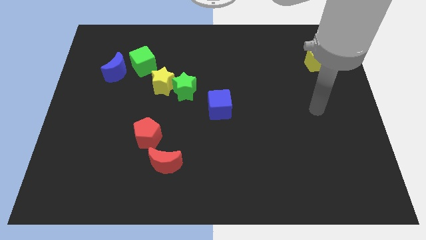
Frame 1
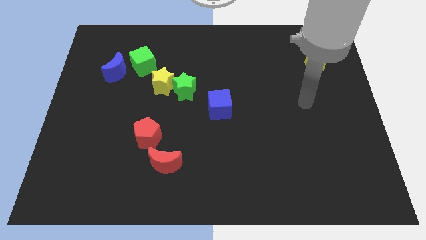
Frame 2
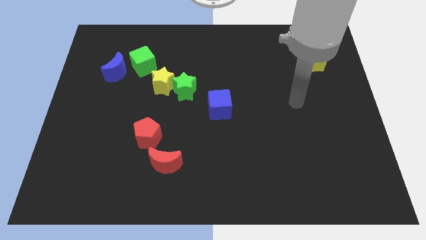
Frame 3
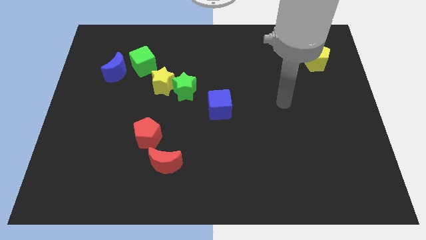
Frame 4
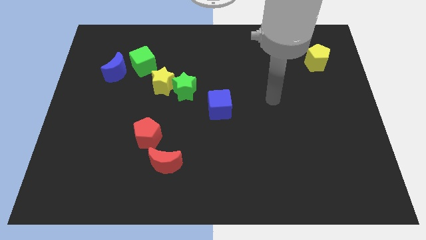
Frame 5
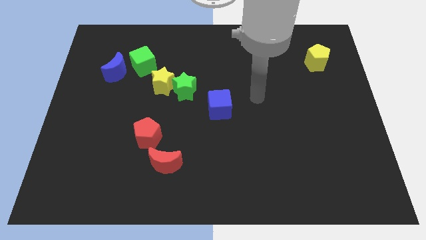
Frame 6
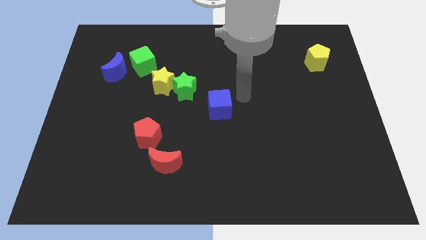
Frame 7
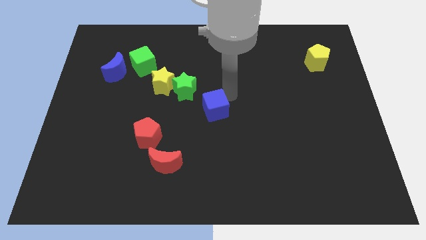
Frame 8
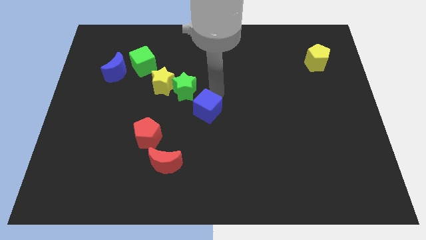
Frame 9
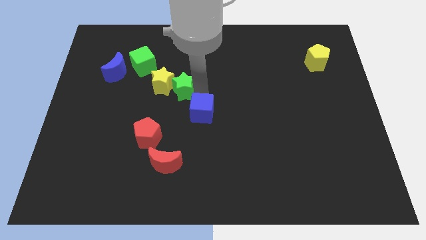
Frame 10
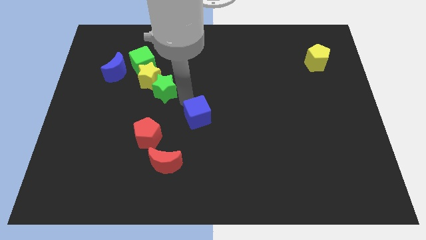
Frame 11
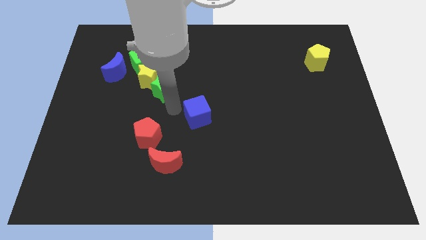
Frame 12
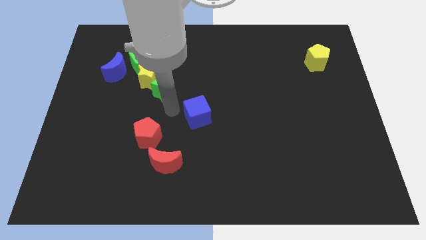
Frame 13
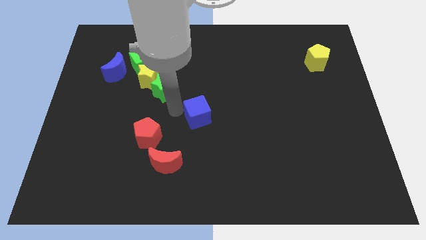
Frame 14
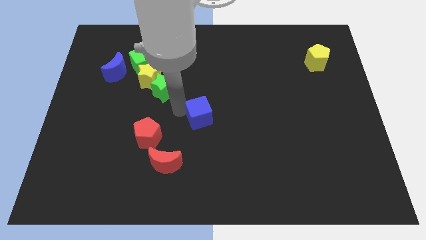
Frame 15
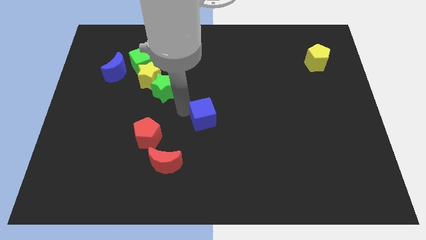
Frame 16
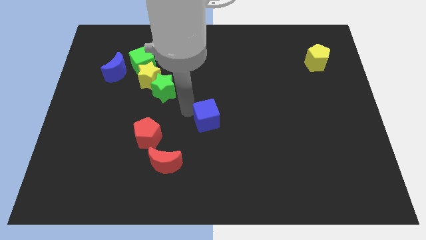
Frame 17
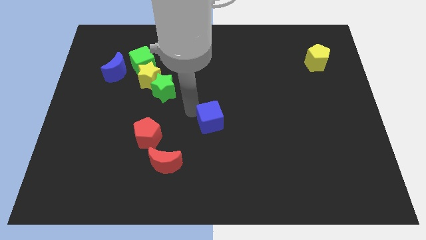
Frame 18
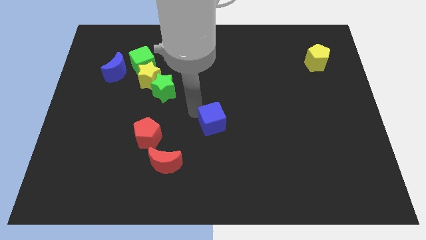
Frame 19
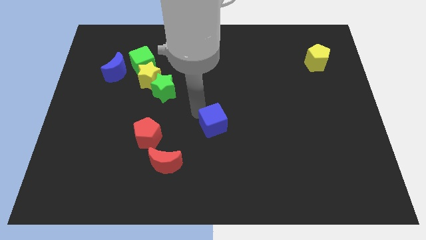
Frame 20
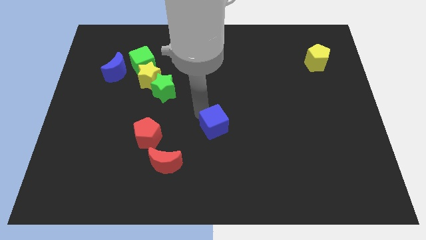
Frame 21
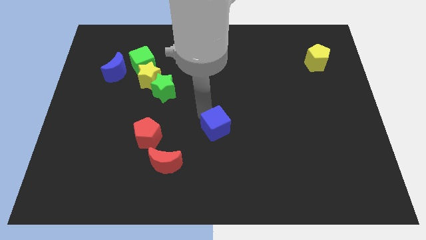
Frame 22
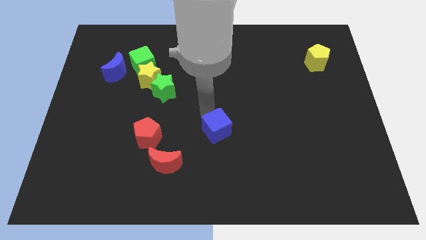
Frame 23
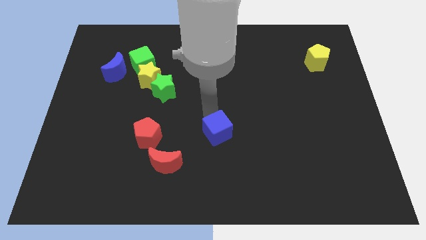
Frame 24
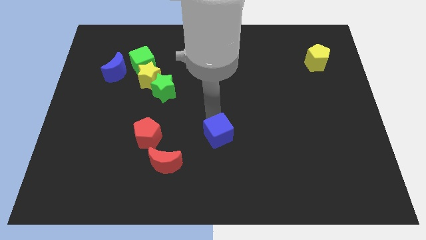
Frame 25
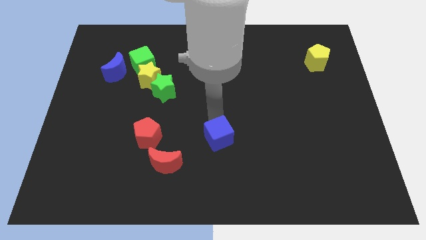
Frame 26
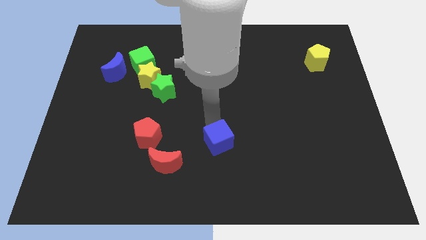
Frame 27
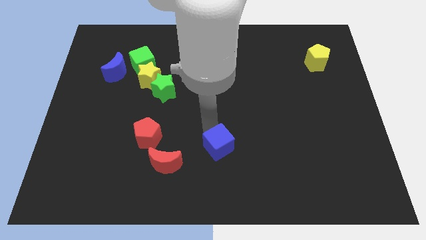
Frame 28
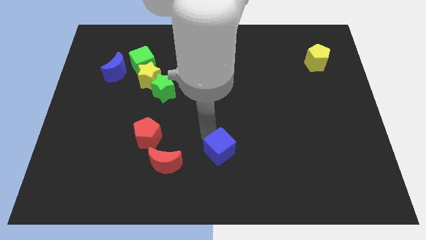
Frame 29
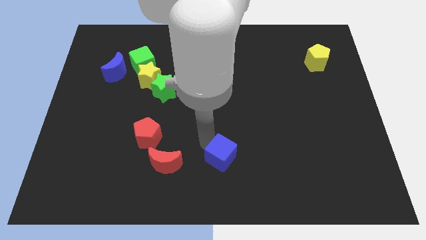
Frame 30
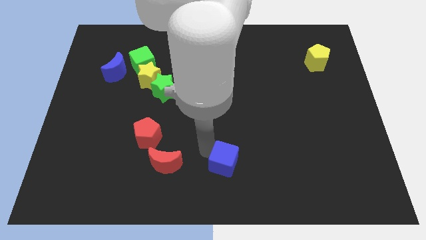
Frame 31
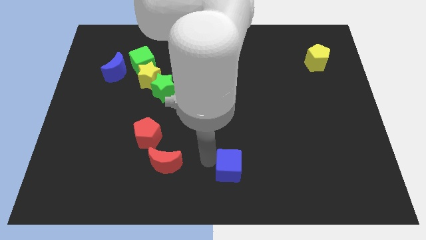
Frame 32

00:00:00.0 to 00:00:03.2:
slightly move the blue cube downwards and to the right

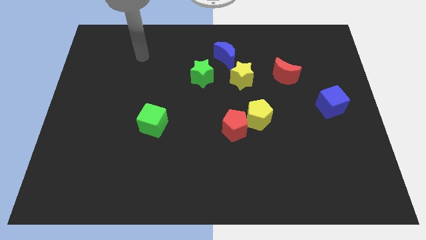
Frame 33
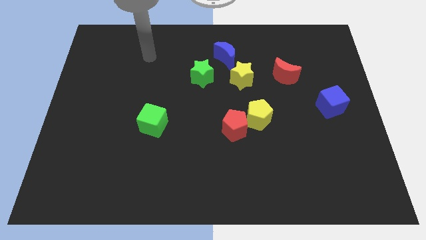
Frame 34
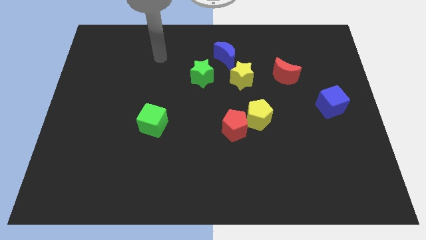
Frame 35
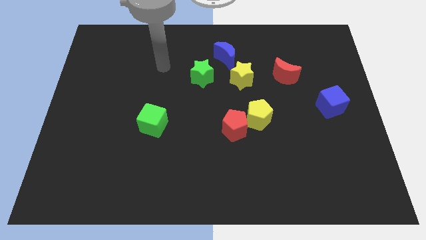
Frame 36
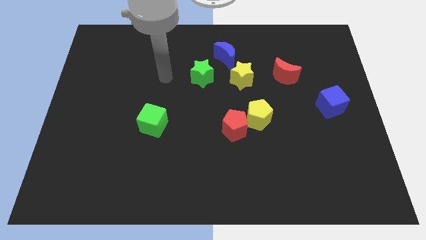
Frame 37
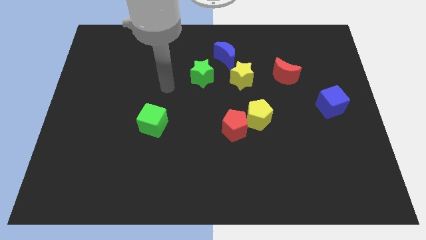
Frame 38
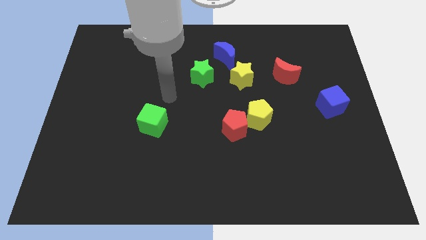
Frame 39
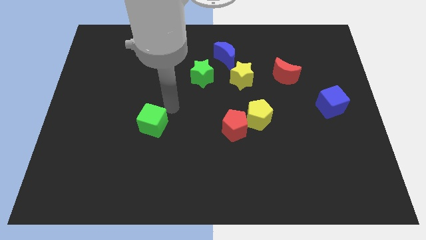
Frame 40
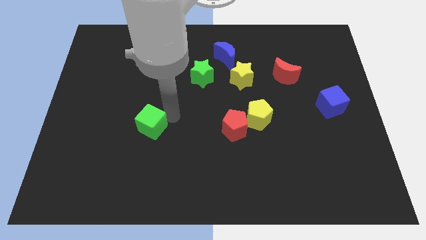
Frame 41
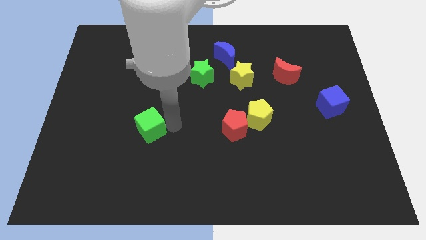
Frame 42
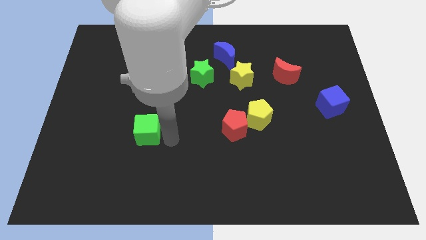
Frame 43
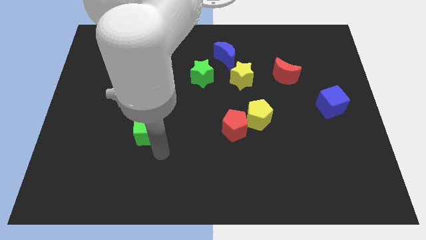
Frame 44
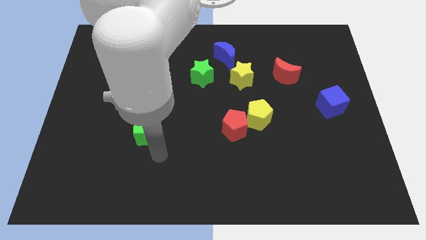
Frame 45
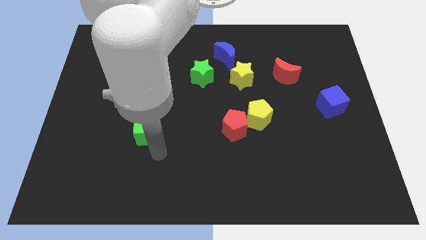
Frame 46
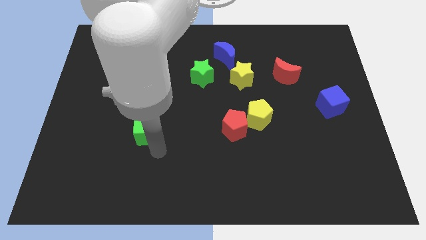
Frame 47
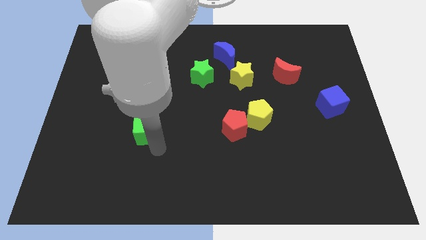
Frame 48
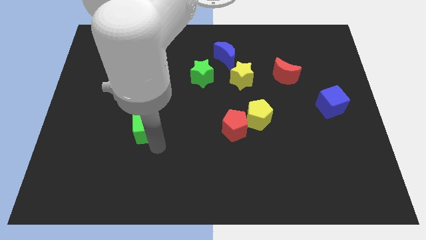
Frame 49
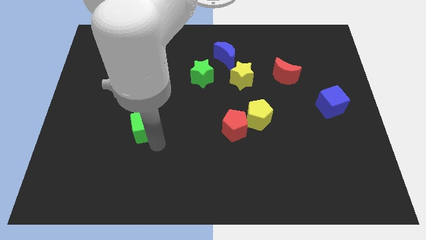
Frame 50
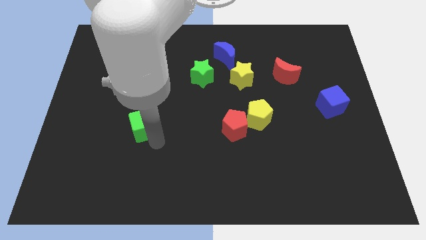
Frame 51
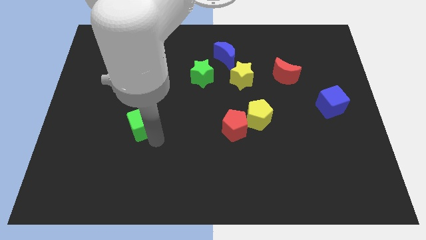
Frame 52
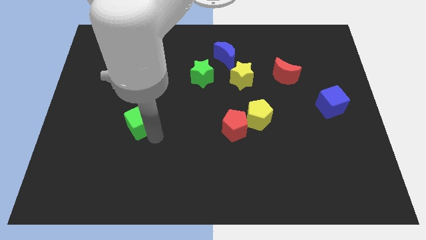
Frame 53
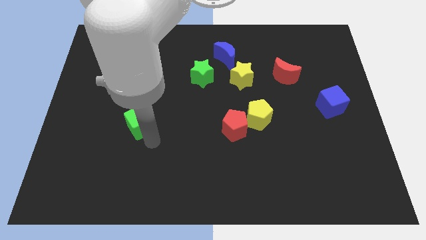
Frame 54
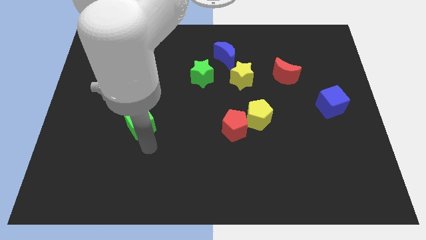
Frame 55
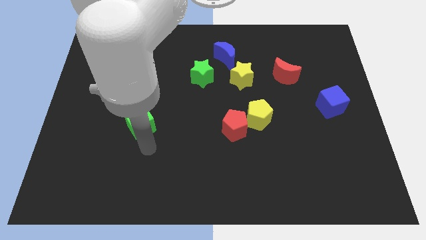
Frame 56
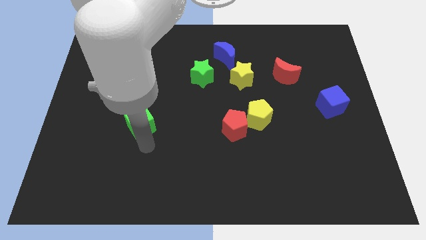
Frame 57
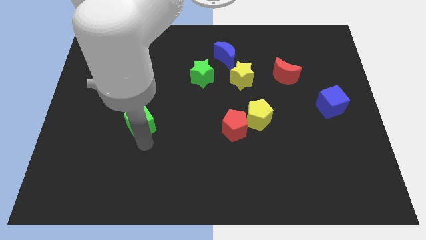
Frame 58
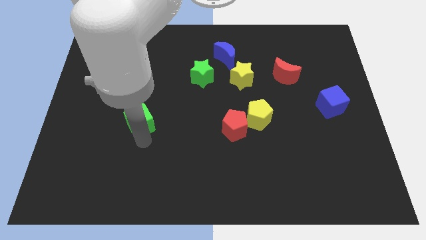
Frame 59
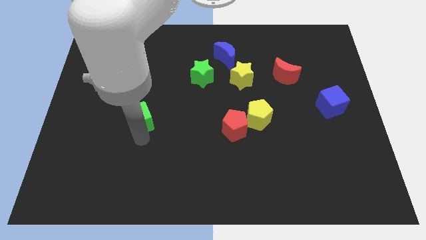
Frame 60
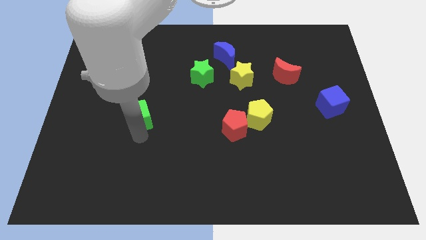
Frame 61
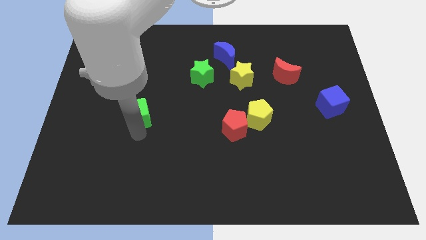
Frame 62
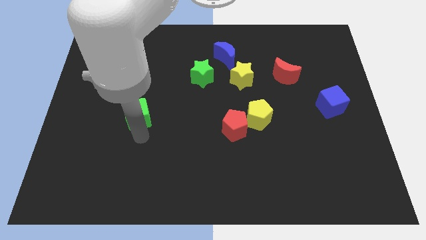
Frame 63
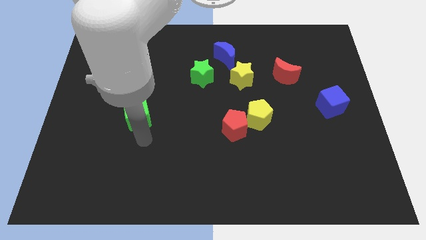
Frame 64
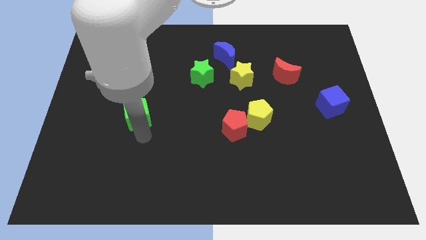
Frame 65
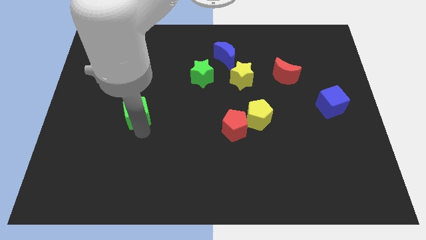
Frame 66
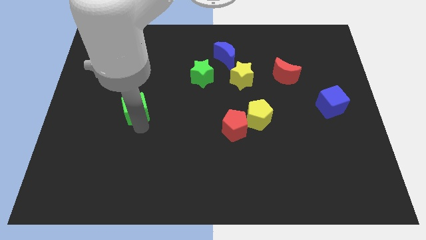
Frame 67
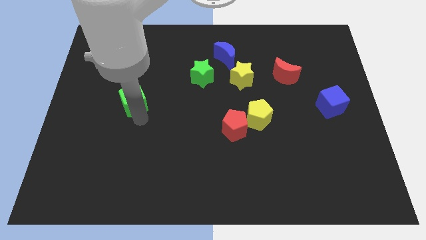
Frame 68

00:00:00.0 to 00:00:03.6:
slightly push the green cube upwards and to the left

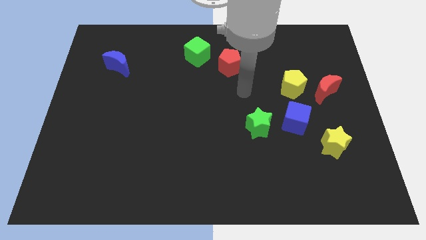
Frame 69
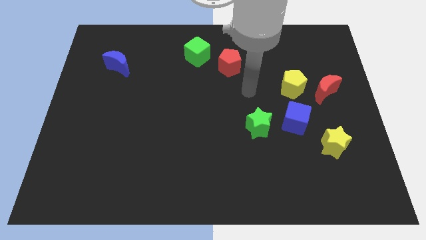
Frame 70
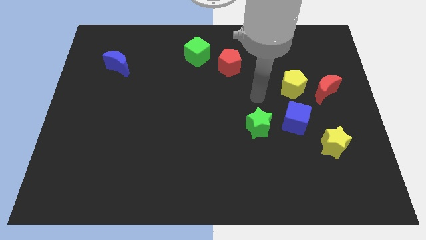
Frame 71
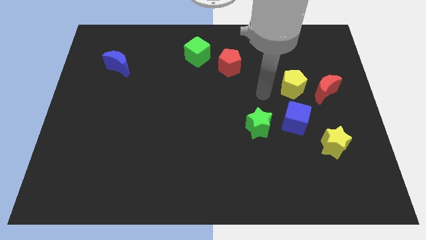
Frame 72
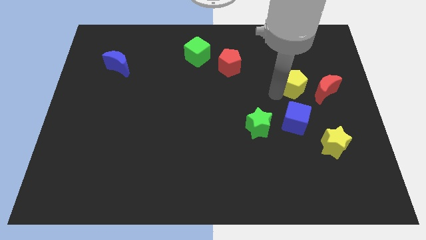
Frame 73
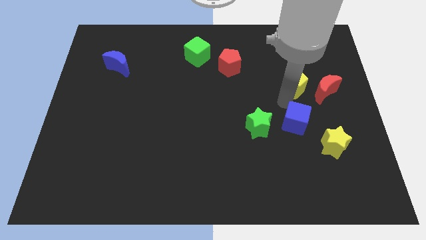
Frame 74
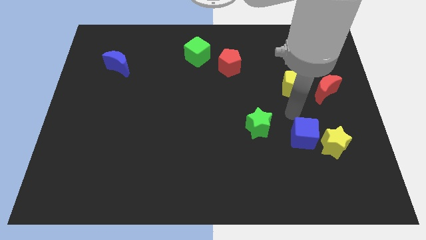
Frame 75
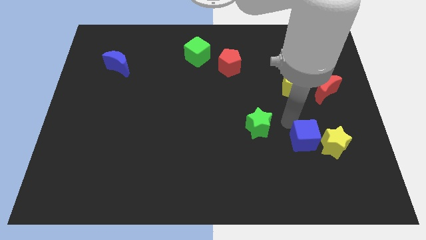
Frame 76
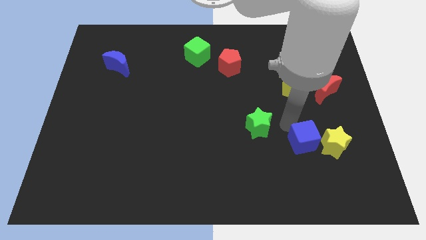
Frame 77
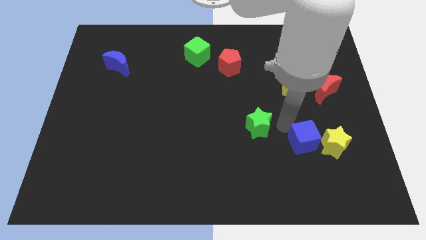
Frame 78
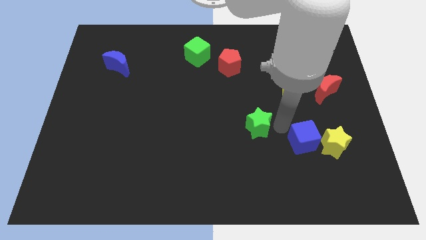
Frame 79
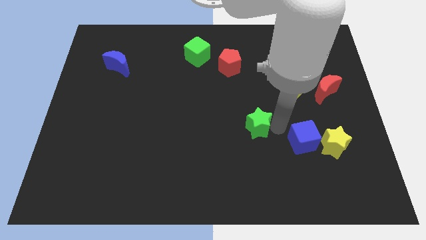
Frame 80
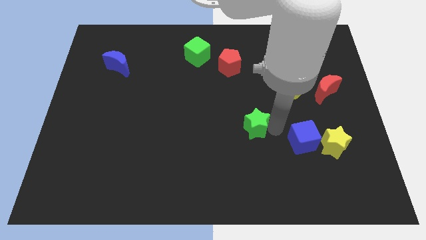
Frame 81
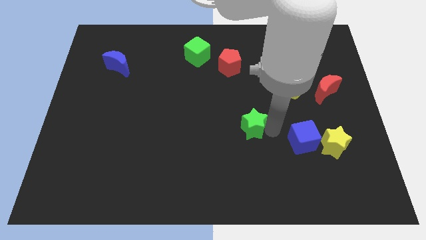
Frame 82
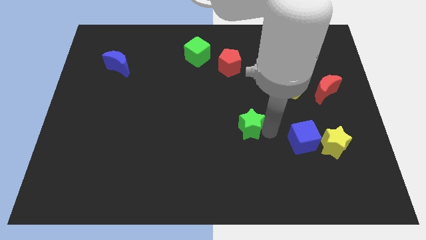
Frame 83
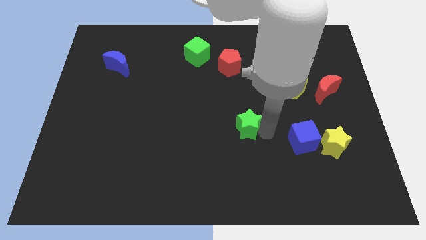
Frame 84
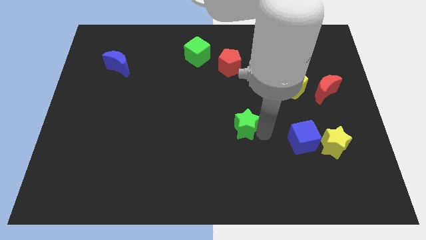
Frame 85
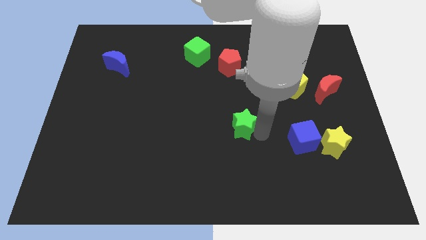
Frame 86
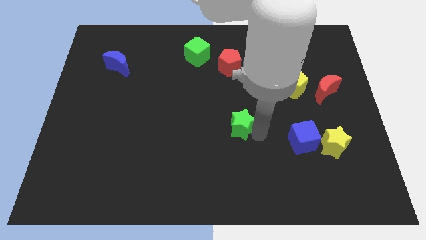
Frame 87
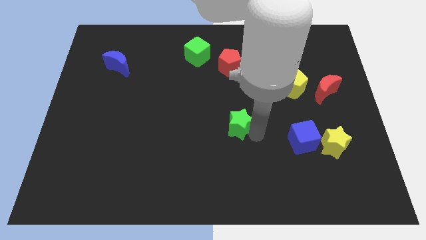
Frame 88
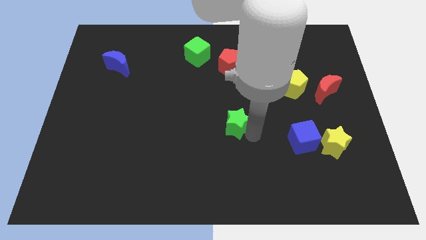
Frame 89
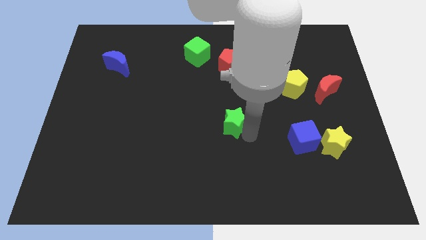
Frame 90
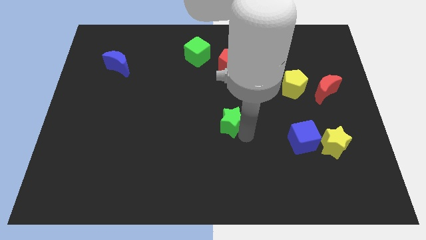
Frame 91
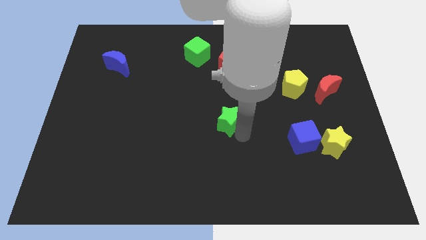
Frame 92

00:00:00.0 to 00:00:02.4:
slightly move the green star left
